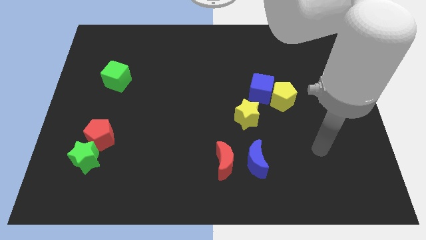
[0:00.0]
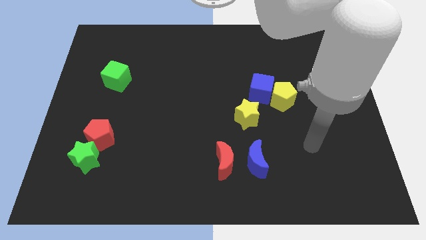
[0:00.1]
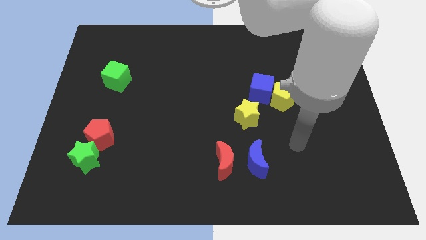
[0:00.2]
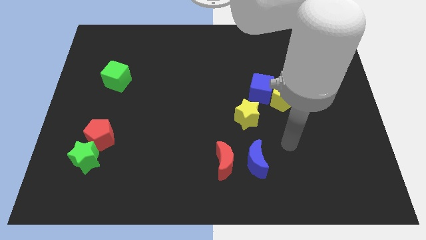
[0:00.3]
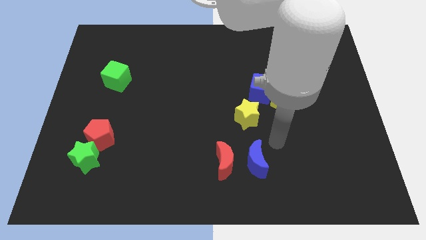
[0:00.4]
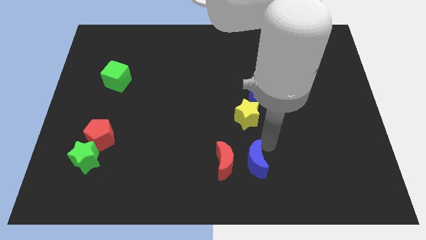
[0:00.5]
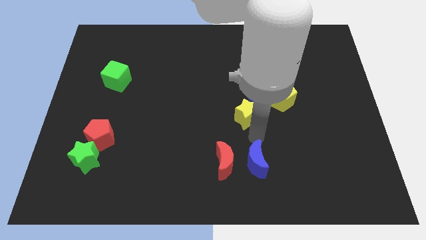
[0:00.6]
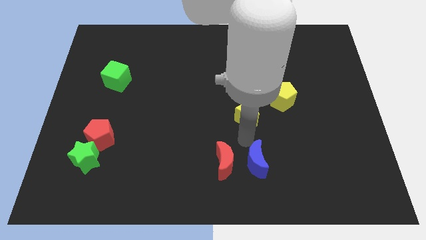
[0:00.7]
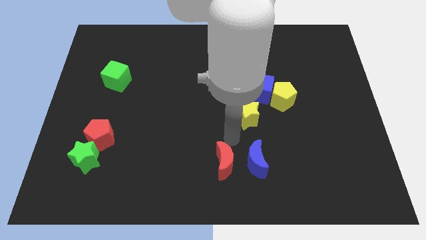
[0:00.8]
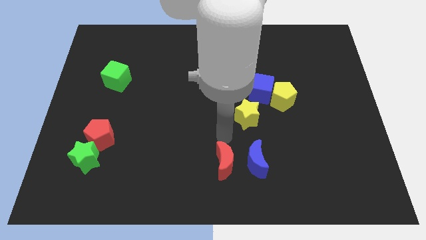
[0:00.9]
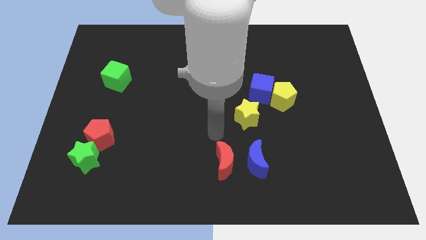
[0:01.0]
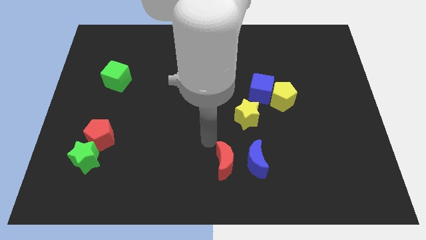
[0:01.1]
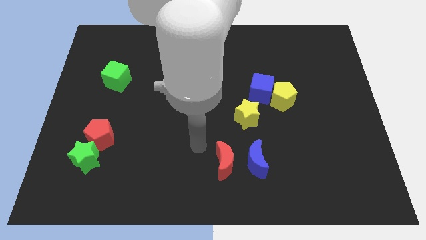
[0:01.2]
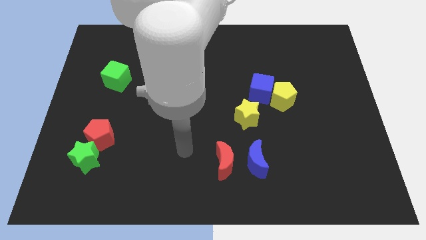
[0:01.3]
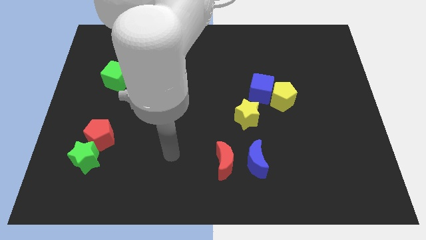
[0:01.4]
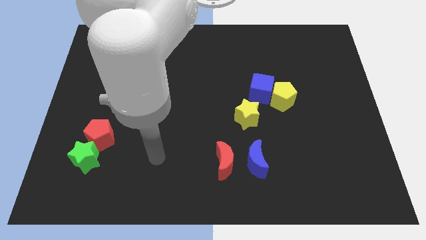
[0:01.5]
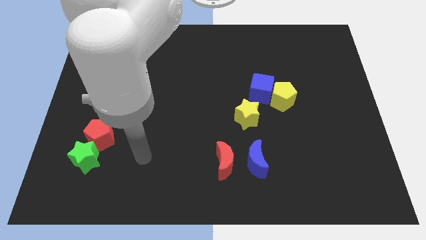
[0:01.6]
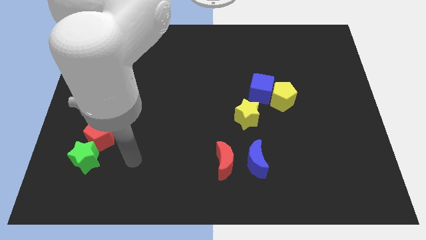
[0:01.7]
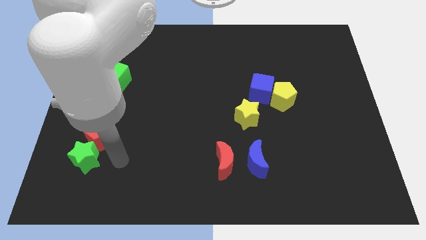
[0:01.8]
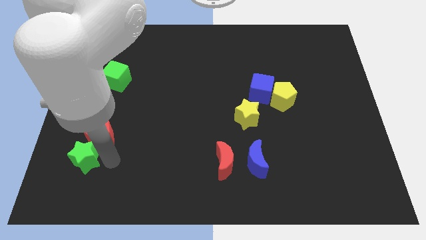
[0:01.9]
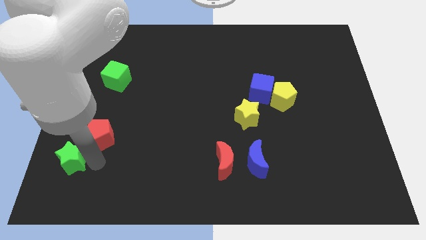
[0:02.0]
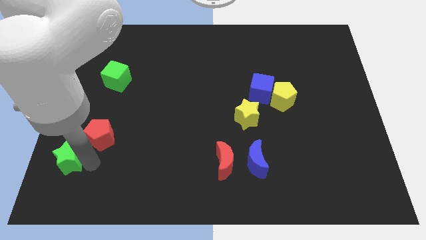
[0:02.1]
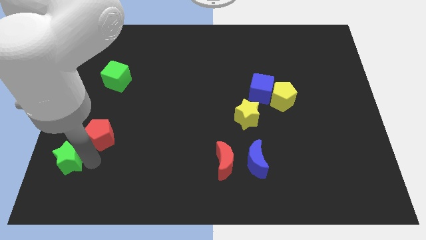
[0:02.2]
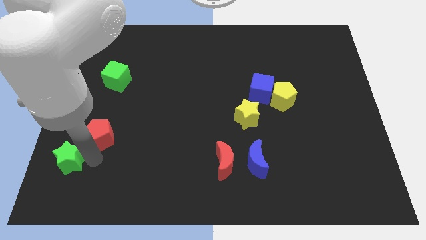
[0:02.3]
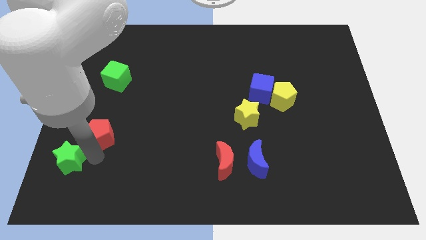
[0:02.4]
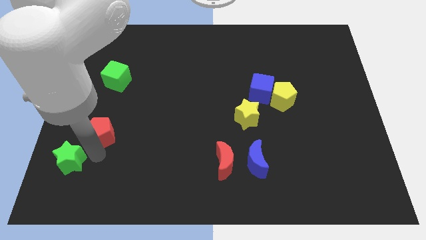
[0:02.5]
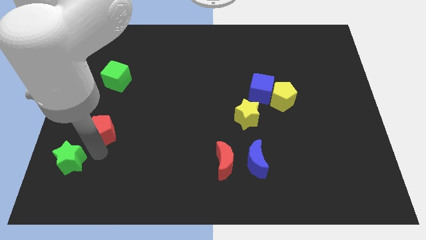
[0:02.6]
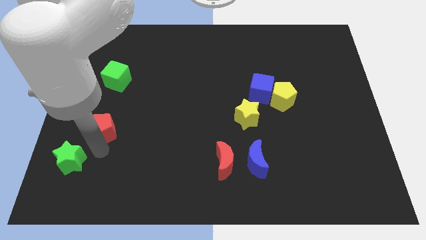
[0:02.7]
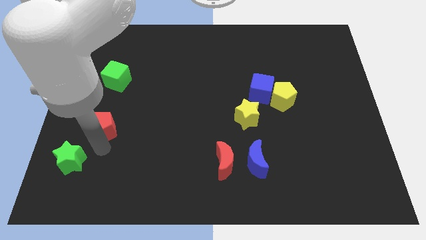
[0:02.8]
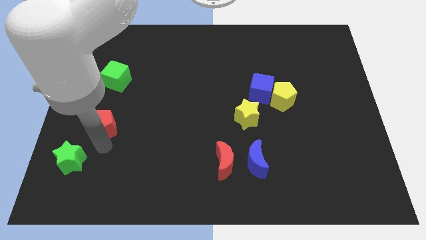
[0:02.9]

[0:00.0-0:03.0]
separate the red pentagon from the green star

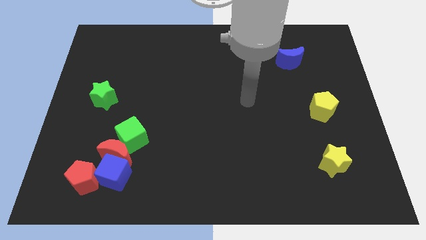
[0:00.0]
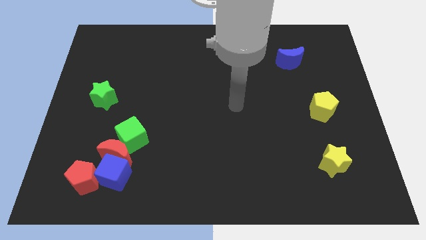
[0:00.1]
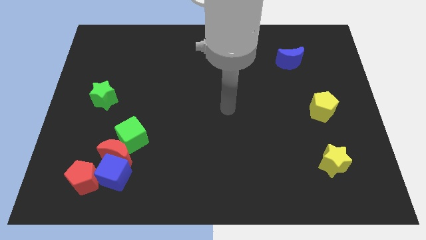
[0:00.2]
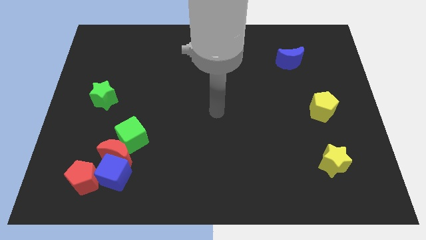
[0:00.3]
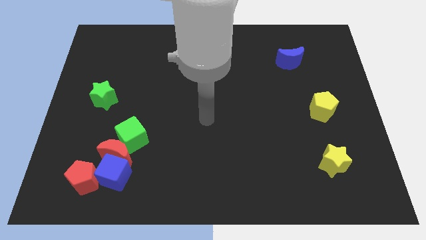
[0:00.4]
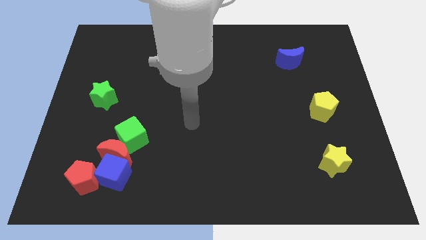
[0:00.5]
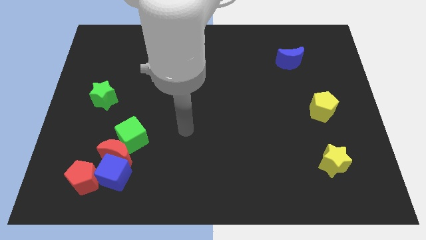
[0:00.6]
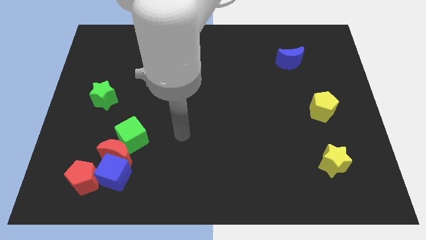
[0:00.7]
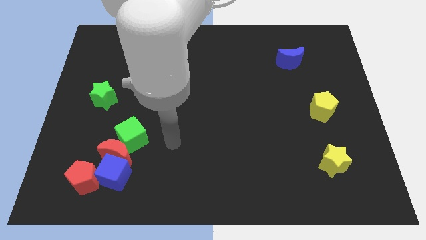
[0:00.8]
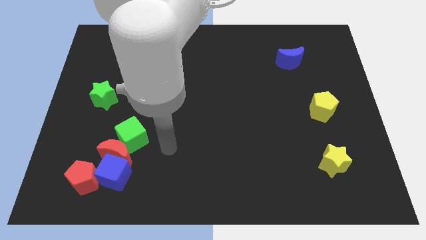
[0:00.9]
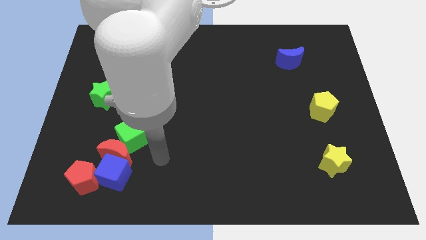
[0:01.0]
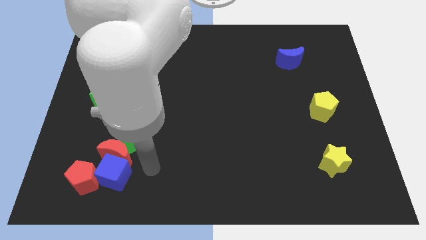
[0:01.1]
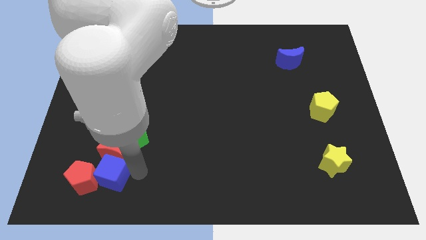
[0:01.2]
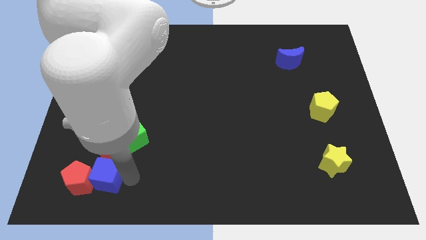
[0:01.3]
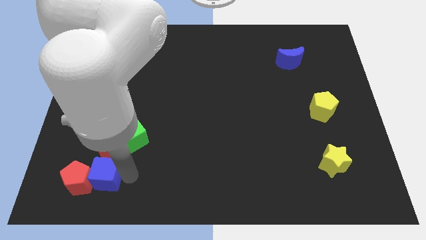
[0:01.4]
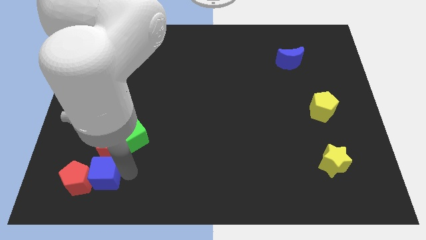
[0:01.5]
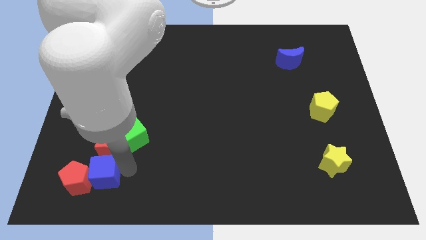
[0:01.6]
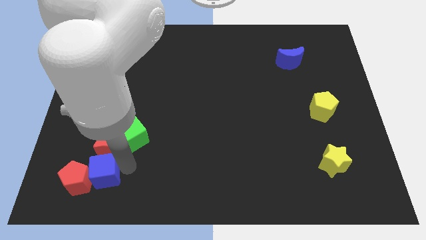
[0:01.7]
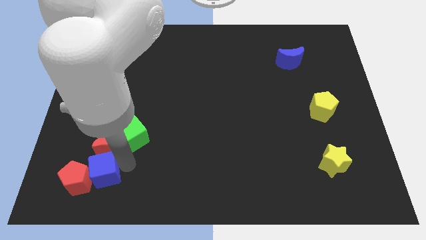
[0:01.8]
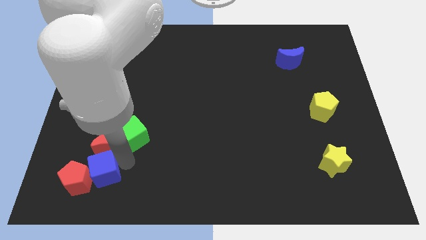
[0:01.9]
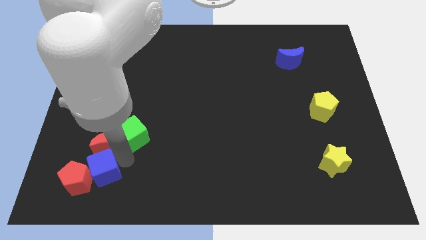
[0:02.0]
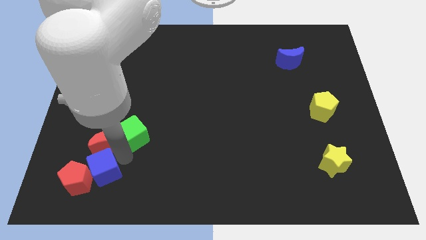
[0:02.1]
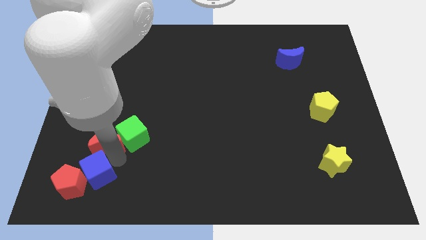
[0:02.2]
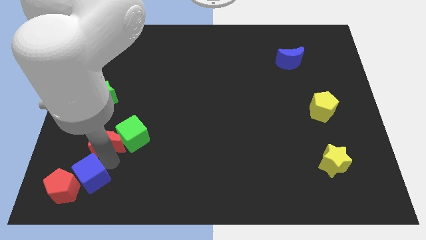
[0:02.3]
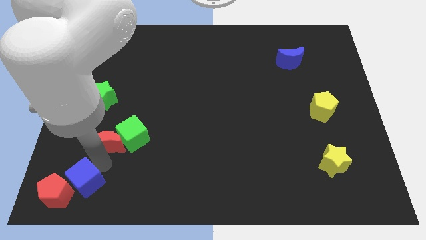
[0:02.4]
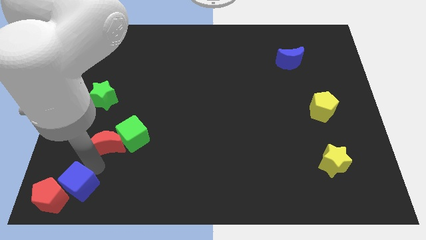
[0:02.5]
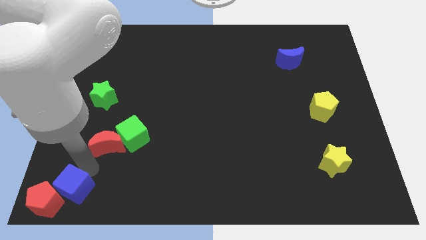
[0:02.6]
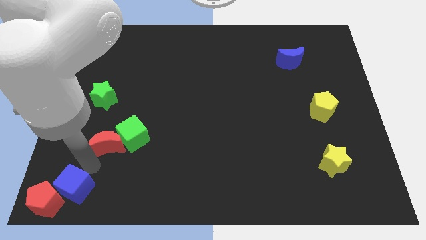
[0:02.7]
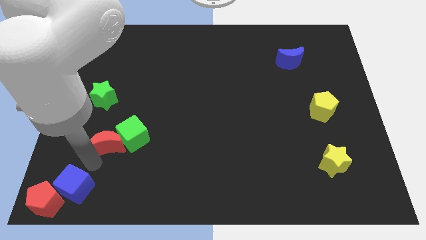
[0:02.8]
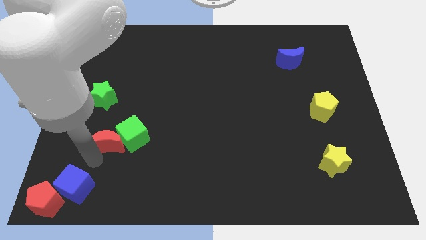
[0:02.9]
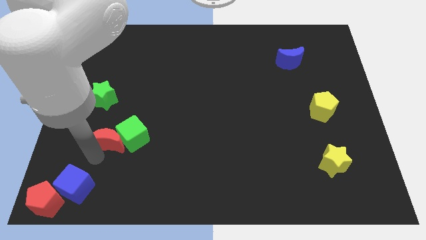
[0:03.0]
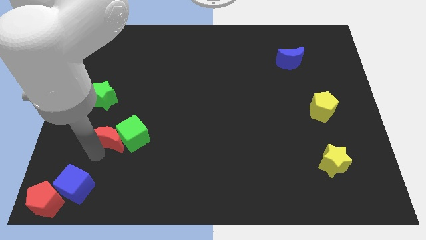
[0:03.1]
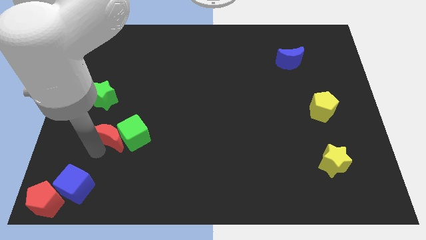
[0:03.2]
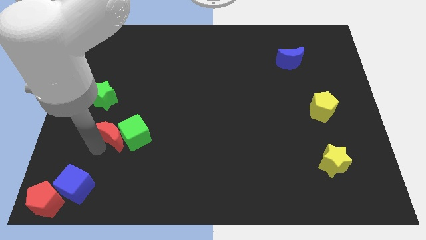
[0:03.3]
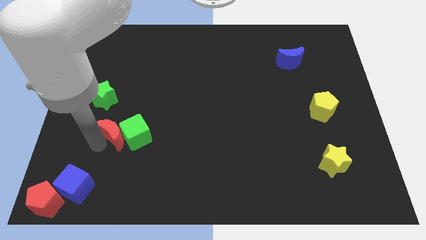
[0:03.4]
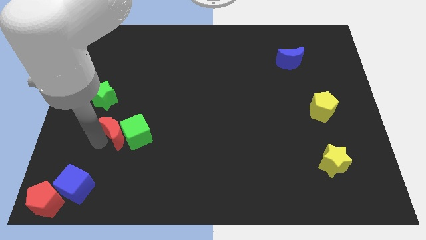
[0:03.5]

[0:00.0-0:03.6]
move the red moon away from the group

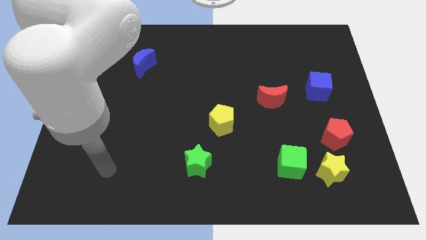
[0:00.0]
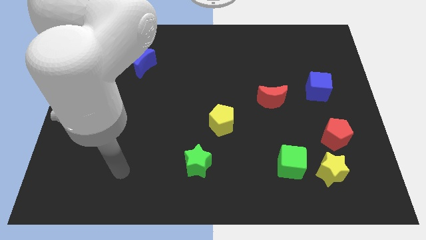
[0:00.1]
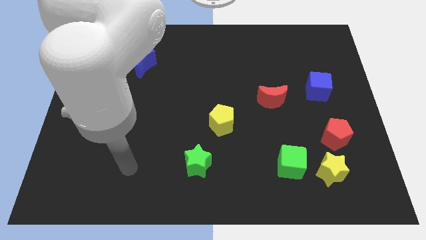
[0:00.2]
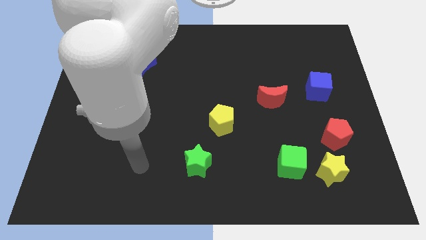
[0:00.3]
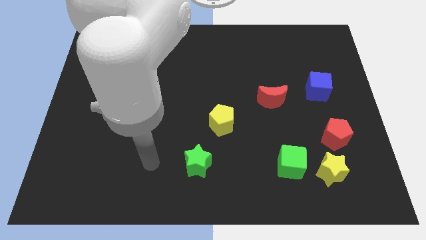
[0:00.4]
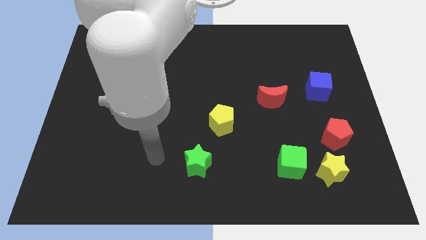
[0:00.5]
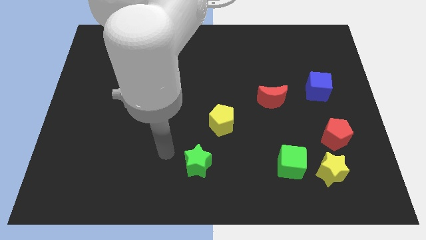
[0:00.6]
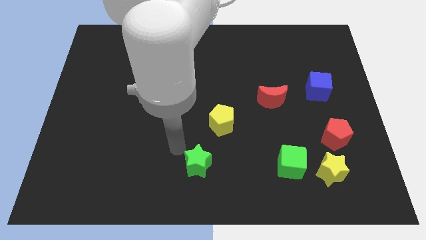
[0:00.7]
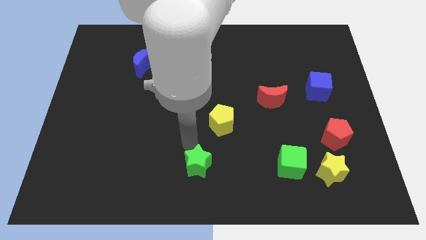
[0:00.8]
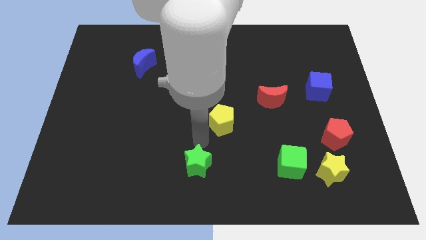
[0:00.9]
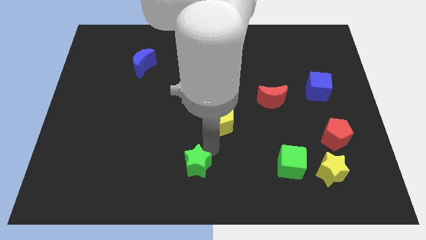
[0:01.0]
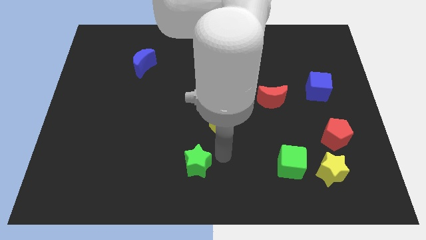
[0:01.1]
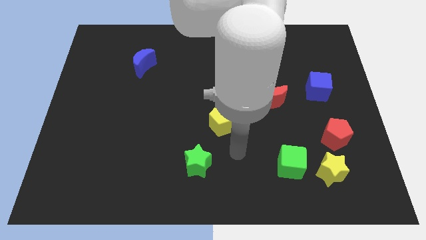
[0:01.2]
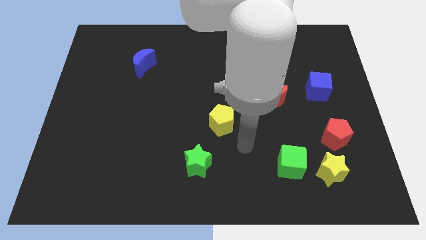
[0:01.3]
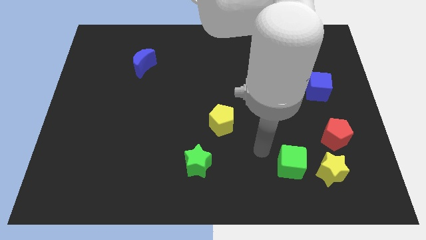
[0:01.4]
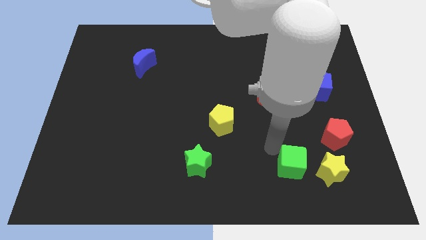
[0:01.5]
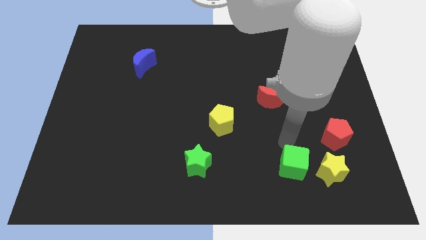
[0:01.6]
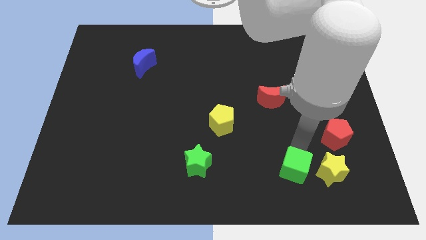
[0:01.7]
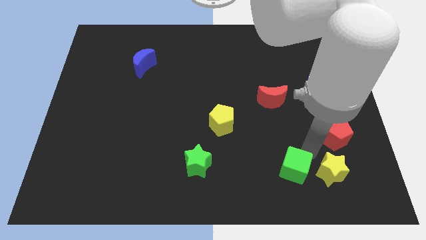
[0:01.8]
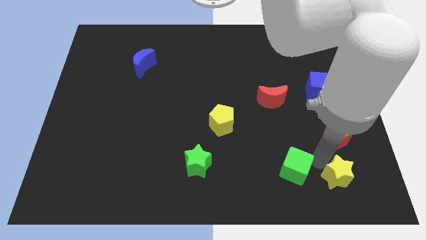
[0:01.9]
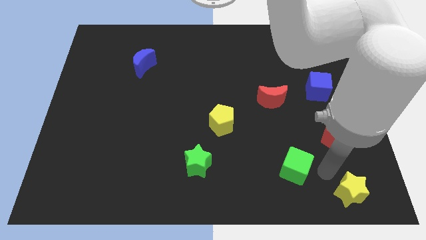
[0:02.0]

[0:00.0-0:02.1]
separate the green cube from the yellow star

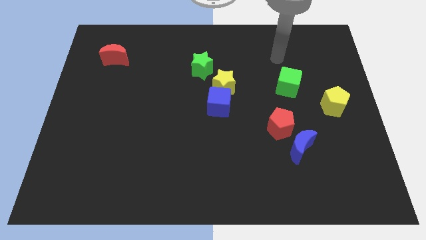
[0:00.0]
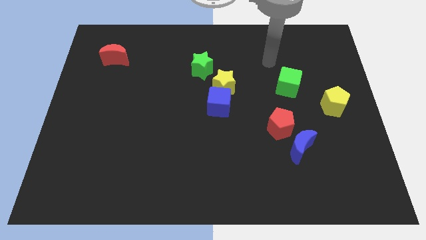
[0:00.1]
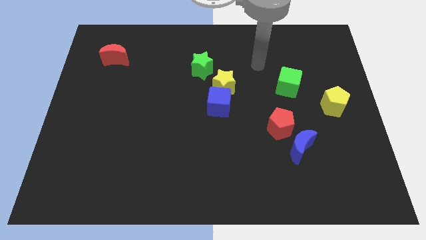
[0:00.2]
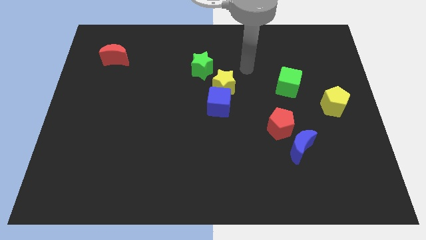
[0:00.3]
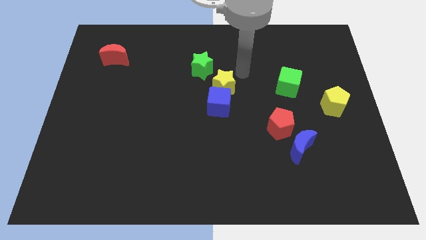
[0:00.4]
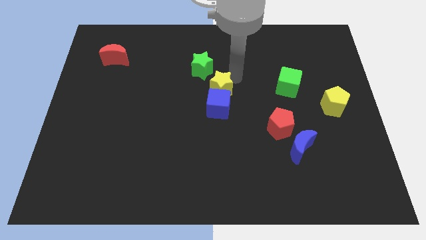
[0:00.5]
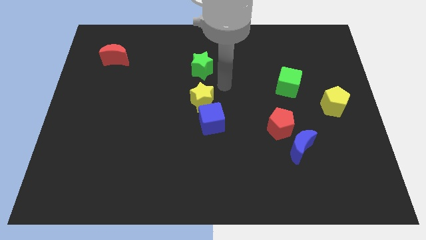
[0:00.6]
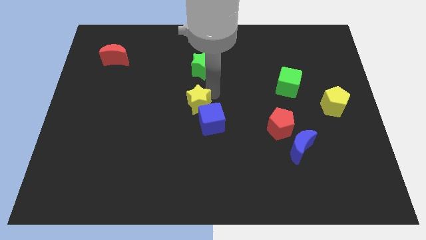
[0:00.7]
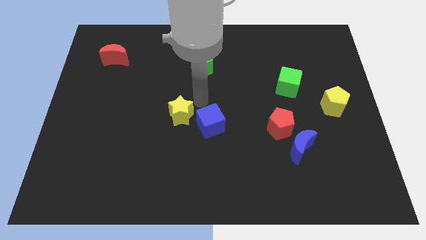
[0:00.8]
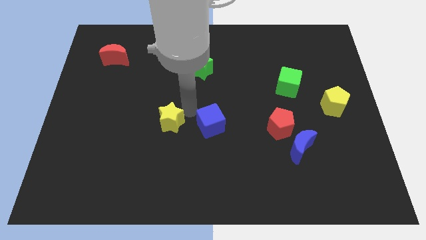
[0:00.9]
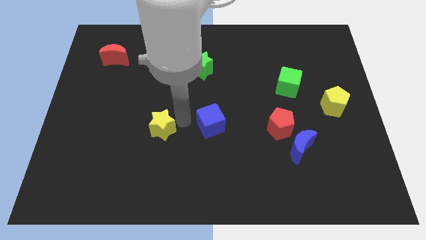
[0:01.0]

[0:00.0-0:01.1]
move the blue cube away from the yellow star
